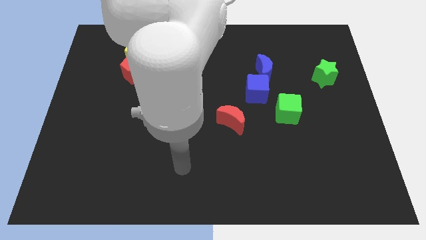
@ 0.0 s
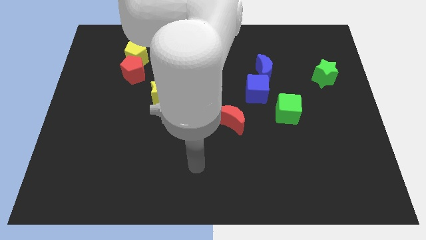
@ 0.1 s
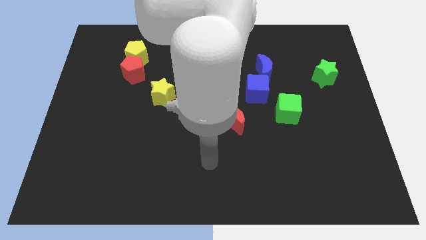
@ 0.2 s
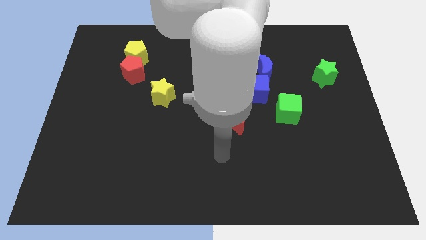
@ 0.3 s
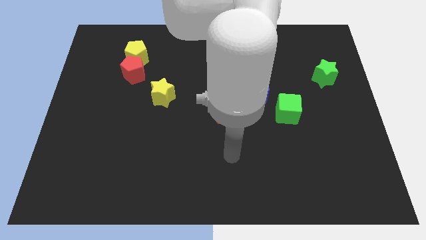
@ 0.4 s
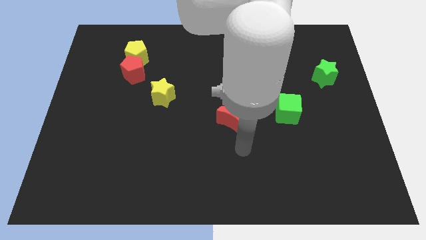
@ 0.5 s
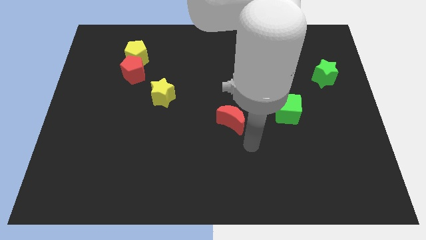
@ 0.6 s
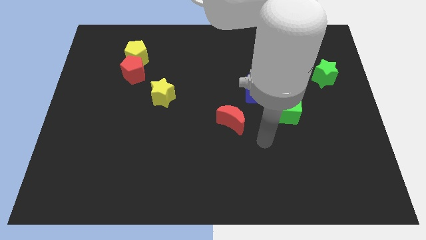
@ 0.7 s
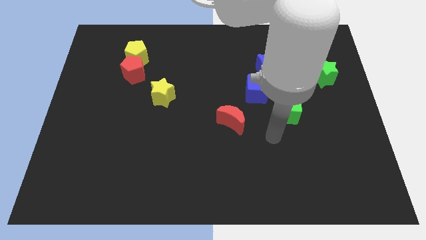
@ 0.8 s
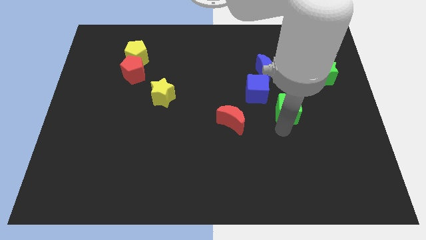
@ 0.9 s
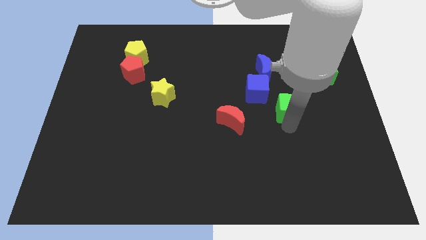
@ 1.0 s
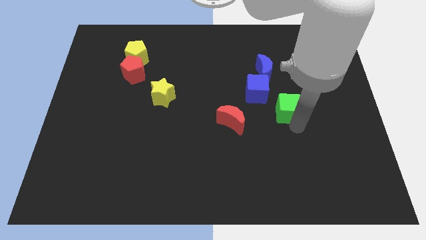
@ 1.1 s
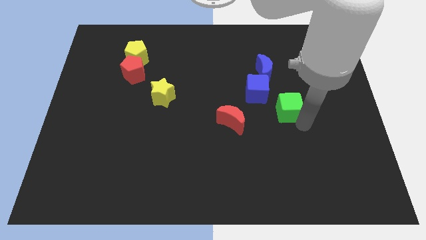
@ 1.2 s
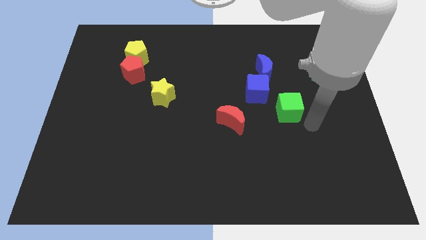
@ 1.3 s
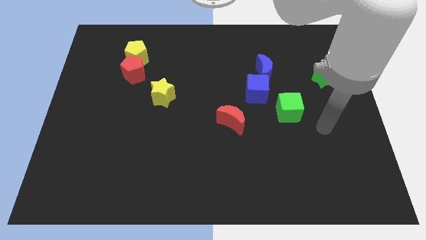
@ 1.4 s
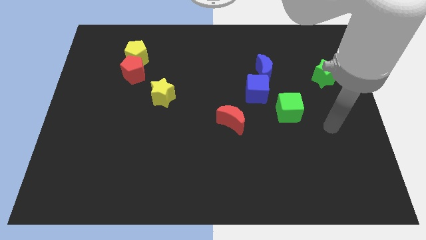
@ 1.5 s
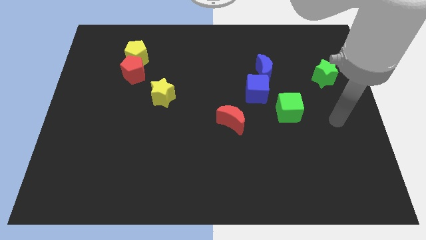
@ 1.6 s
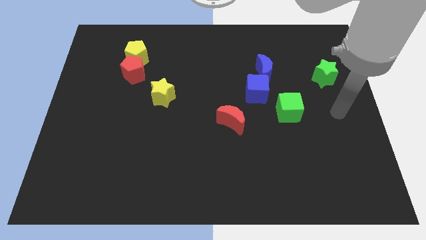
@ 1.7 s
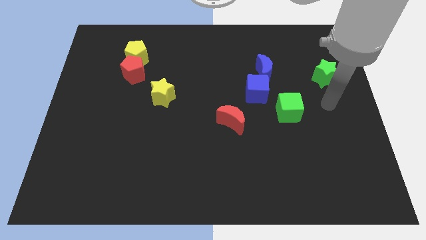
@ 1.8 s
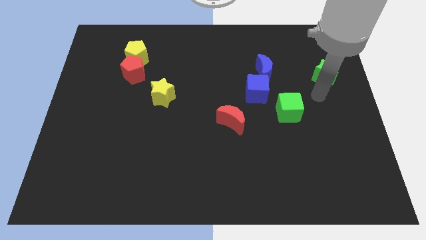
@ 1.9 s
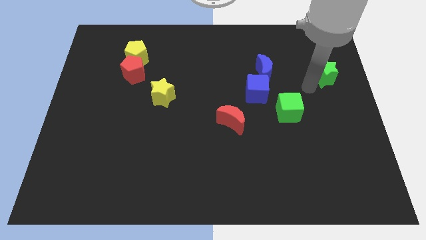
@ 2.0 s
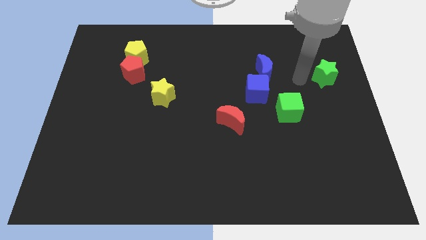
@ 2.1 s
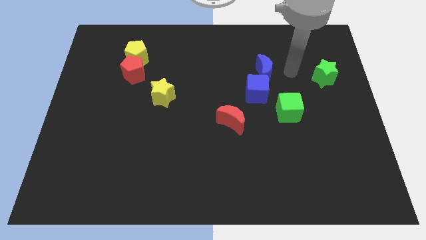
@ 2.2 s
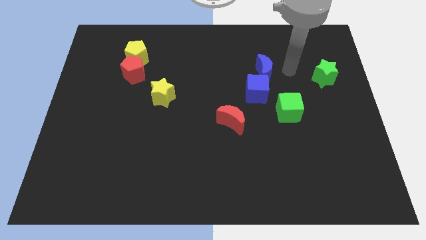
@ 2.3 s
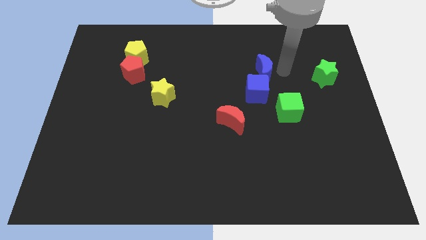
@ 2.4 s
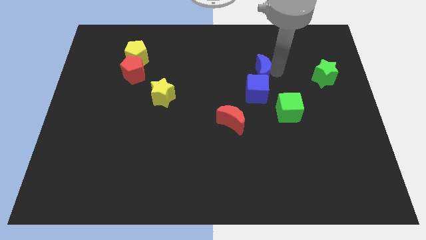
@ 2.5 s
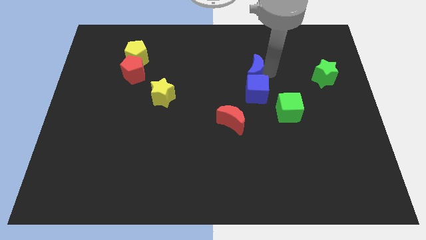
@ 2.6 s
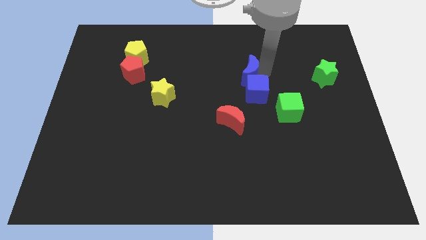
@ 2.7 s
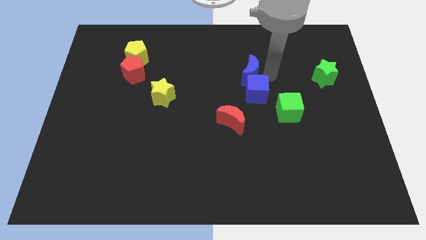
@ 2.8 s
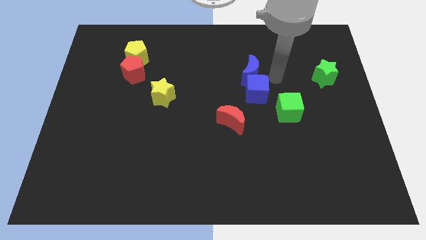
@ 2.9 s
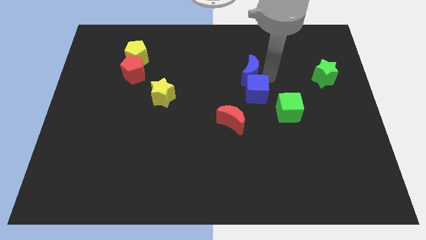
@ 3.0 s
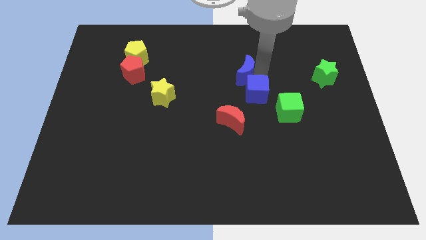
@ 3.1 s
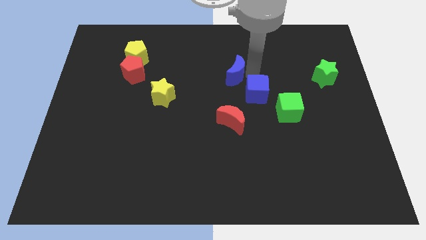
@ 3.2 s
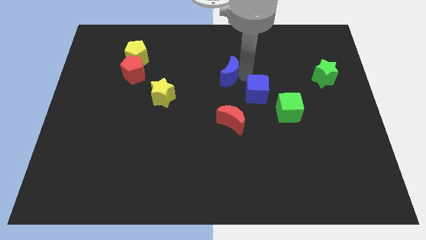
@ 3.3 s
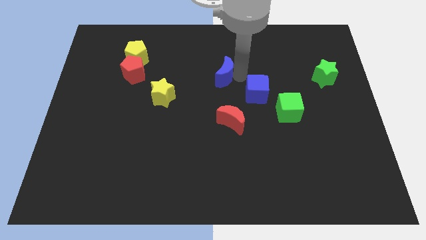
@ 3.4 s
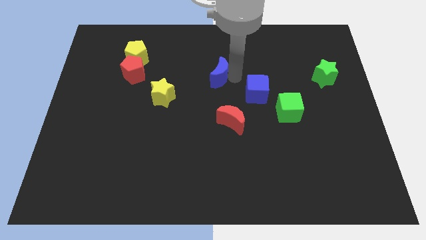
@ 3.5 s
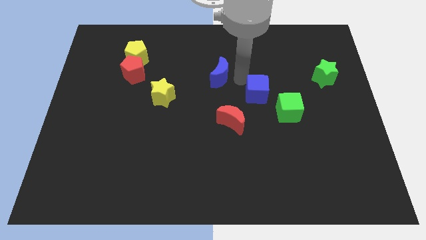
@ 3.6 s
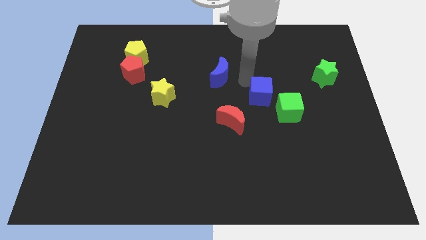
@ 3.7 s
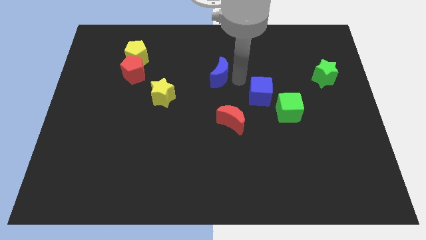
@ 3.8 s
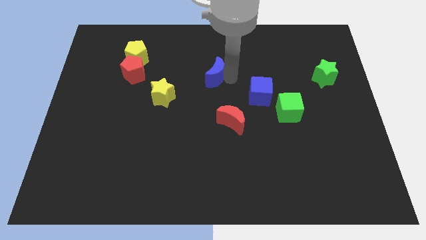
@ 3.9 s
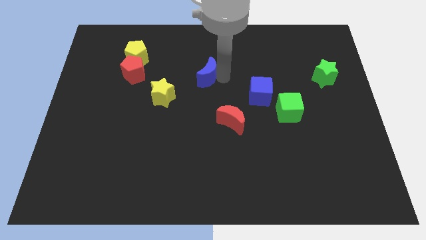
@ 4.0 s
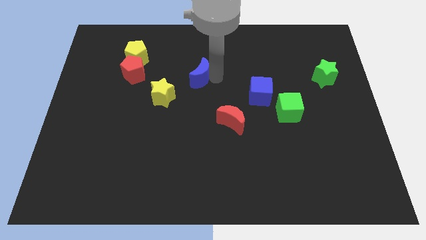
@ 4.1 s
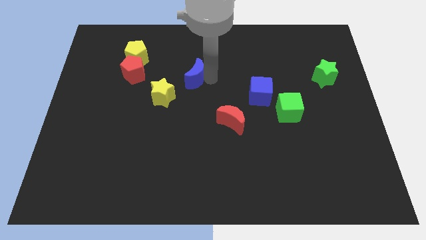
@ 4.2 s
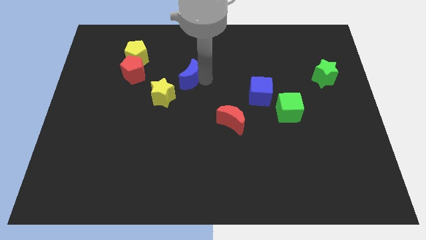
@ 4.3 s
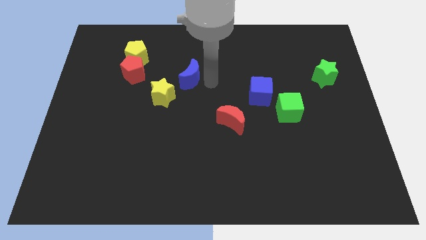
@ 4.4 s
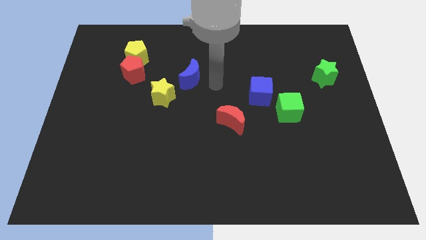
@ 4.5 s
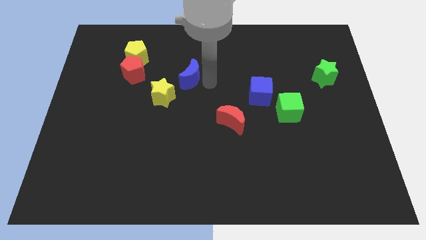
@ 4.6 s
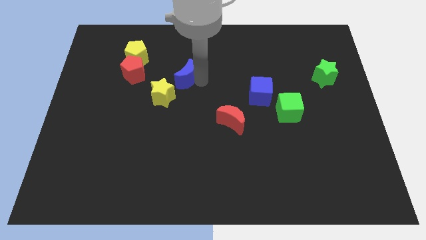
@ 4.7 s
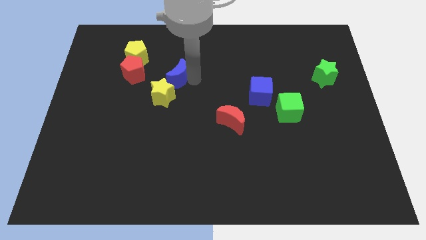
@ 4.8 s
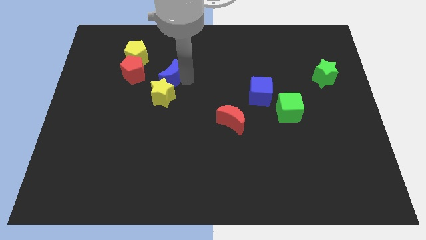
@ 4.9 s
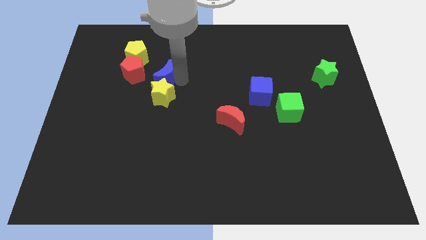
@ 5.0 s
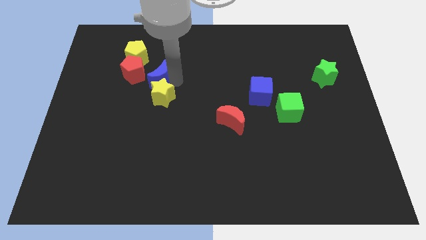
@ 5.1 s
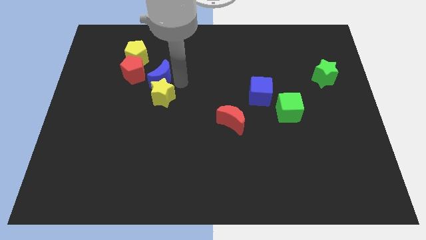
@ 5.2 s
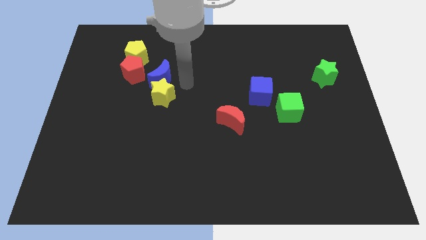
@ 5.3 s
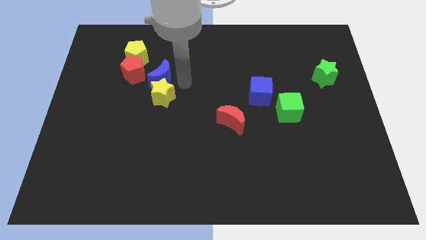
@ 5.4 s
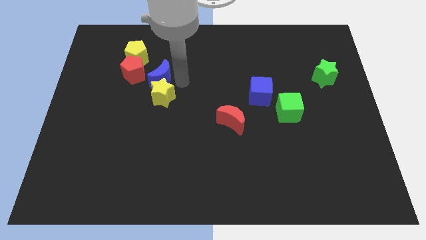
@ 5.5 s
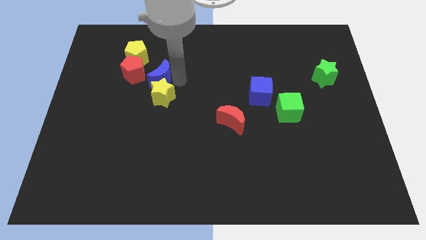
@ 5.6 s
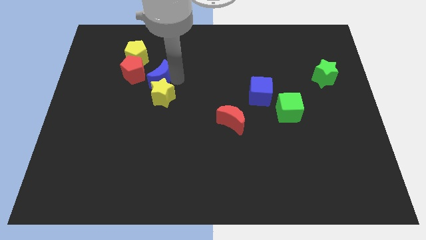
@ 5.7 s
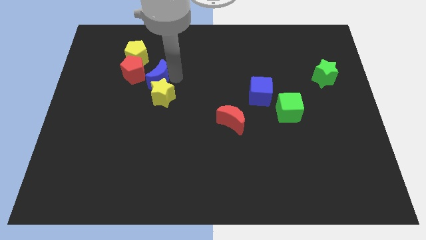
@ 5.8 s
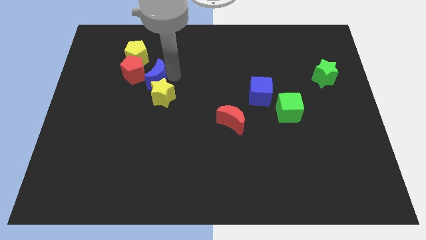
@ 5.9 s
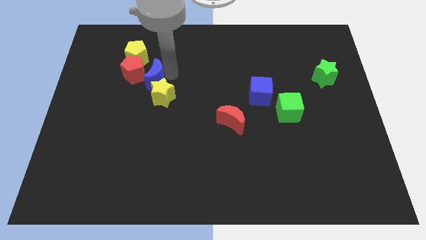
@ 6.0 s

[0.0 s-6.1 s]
move the blue moon to the red pentagon
